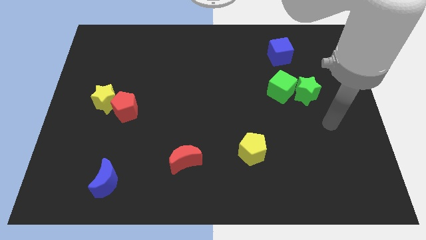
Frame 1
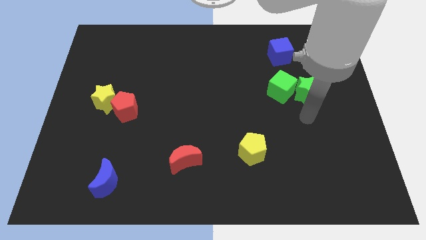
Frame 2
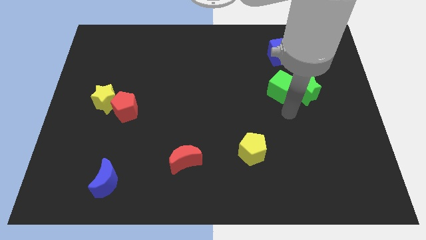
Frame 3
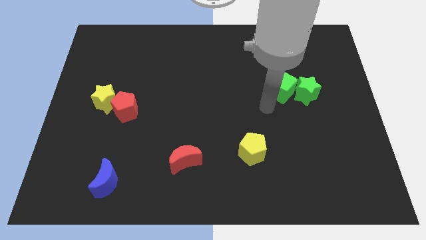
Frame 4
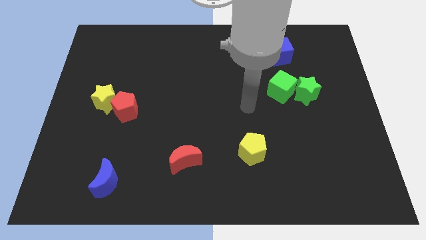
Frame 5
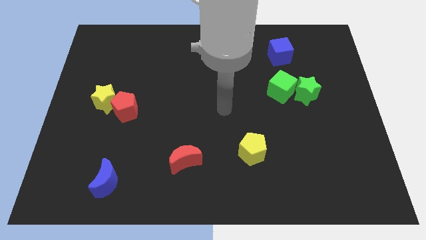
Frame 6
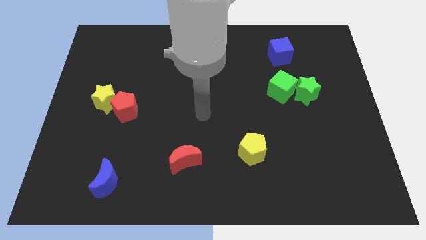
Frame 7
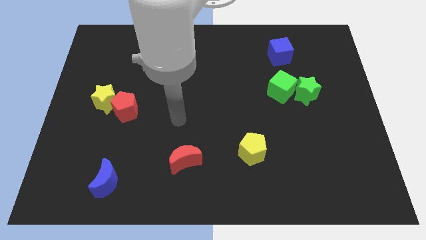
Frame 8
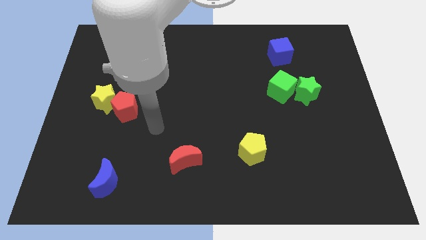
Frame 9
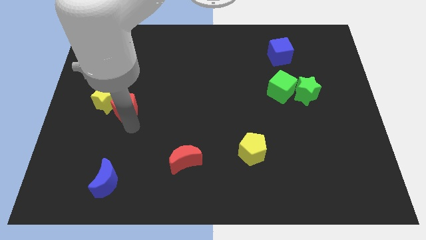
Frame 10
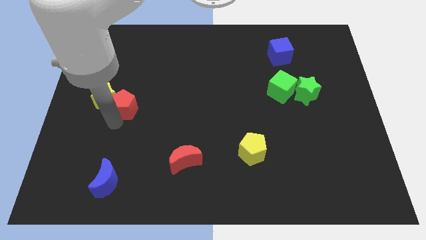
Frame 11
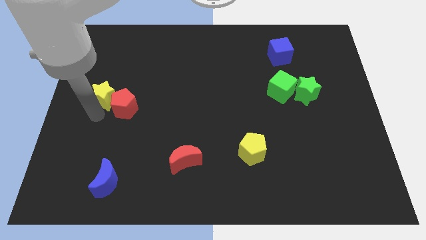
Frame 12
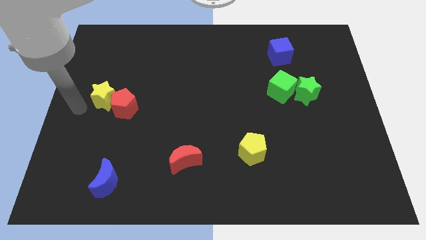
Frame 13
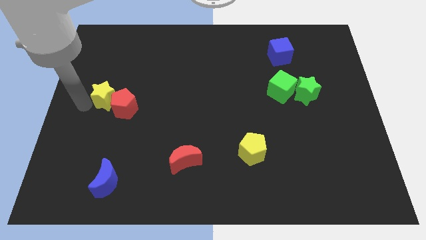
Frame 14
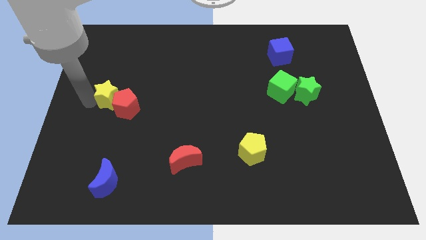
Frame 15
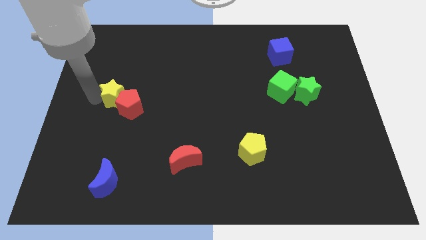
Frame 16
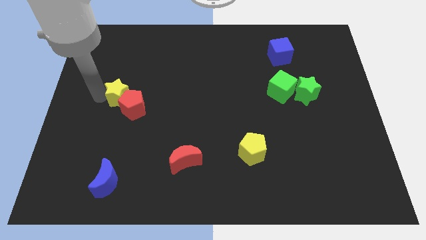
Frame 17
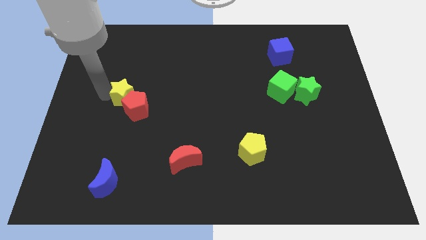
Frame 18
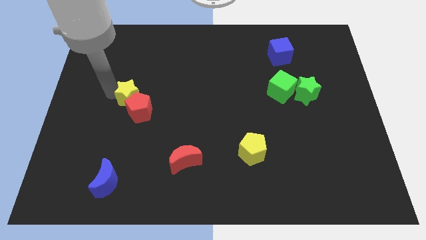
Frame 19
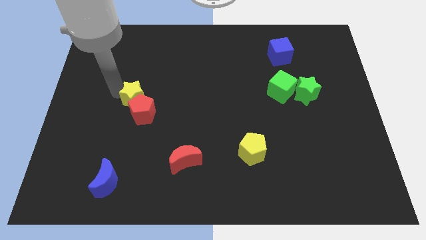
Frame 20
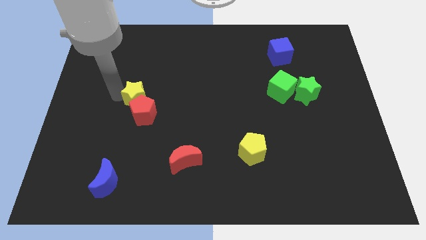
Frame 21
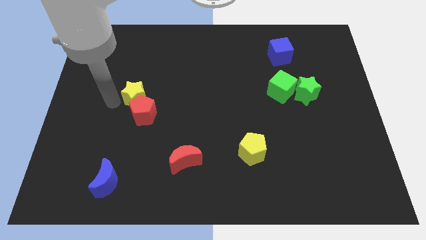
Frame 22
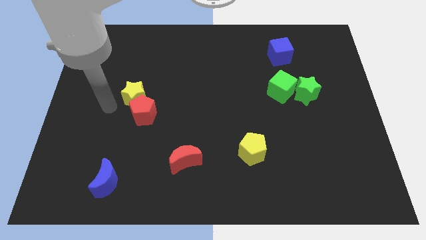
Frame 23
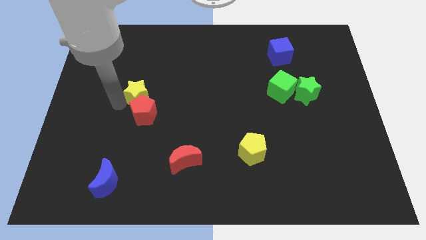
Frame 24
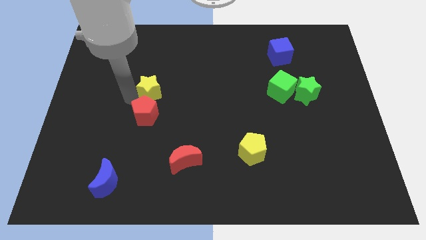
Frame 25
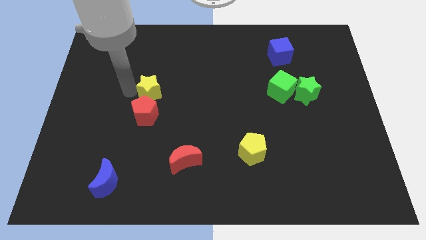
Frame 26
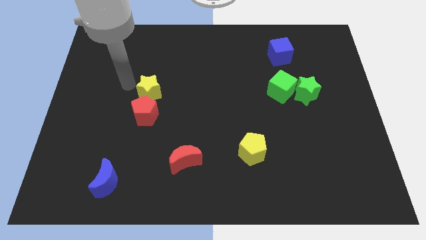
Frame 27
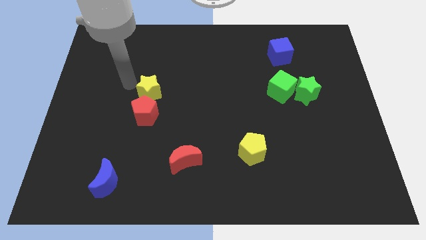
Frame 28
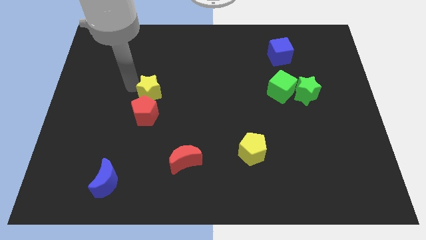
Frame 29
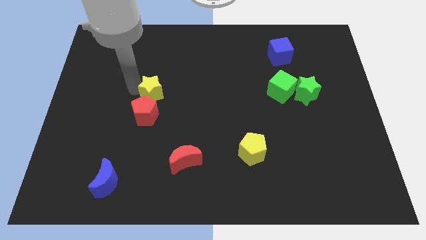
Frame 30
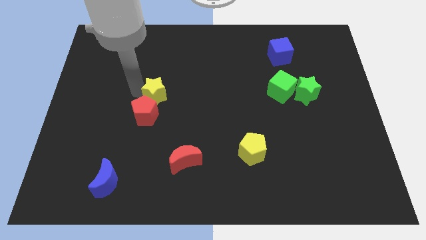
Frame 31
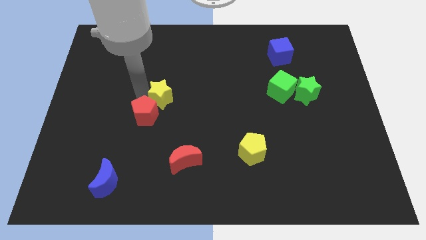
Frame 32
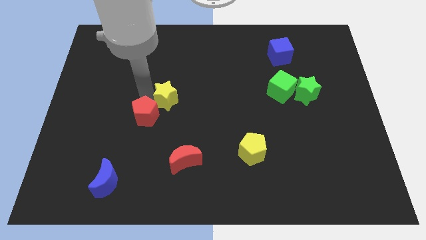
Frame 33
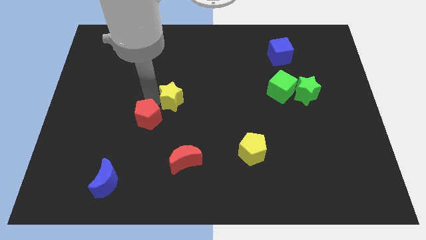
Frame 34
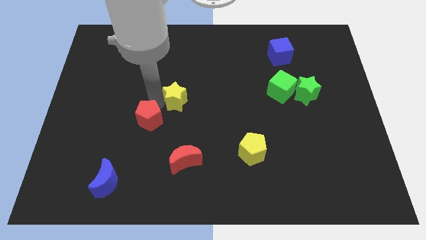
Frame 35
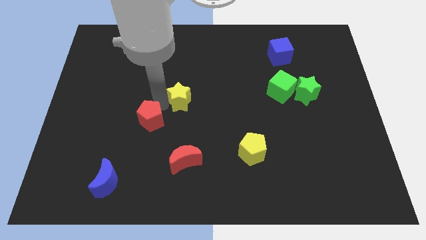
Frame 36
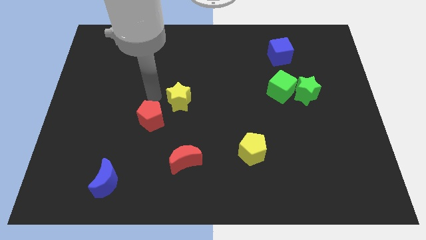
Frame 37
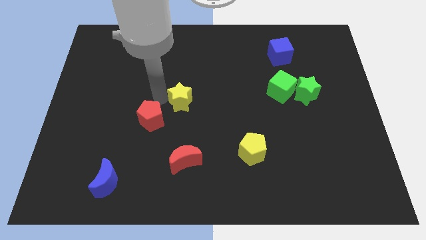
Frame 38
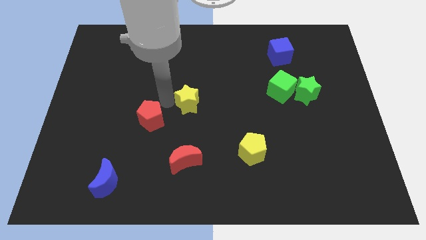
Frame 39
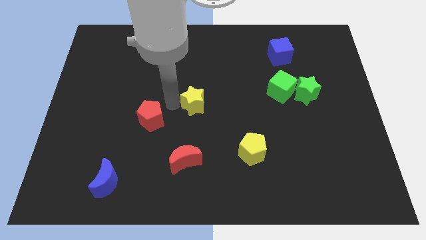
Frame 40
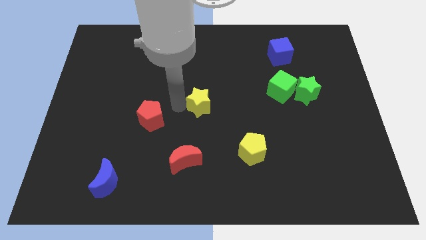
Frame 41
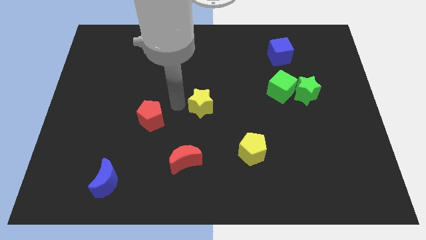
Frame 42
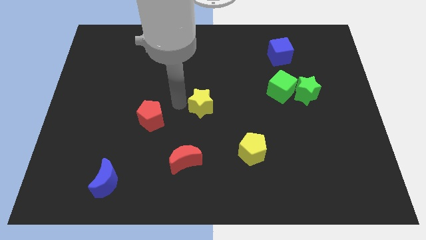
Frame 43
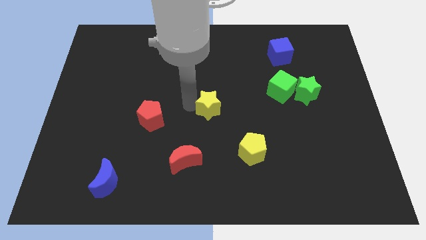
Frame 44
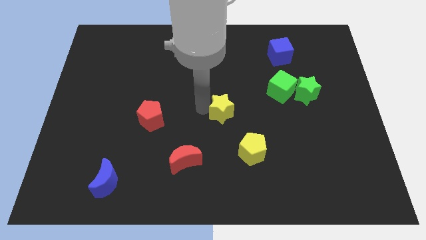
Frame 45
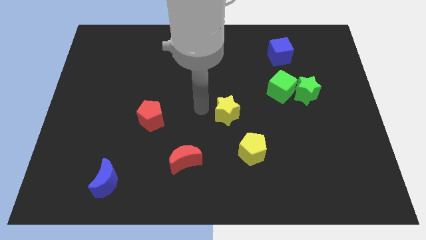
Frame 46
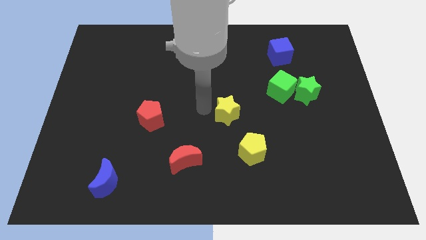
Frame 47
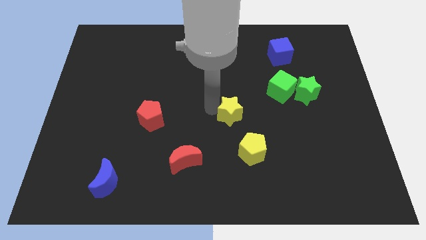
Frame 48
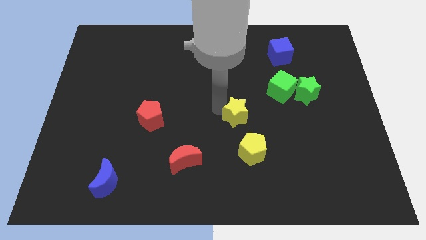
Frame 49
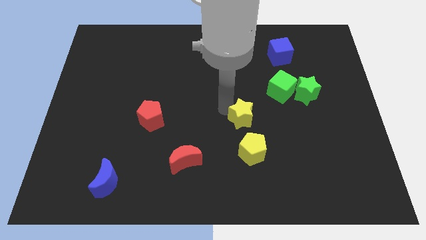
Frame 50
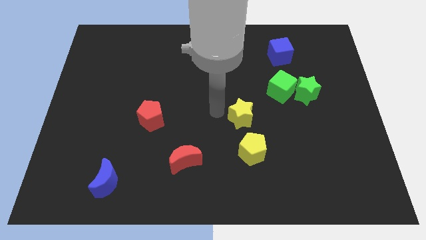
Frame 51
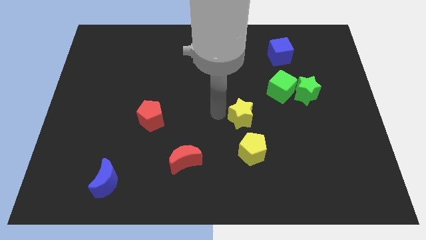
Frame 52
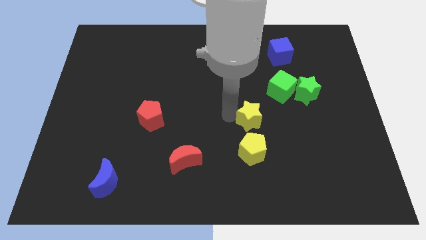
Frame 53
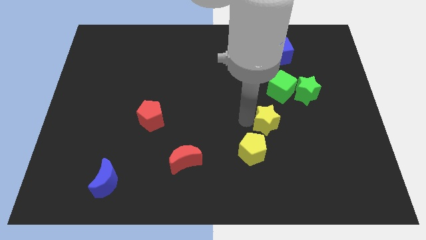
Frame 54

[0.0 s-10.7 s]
push the yellow star to the bottom of the green cube

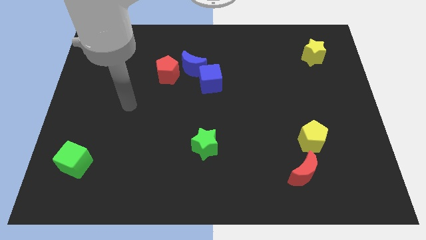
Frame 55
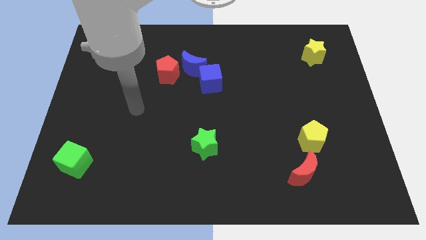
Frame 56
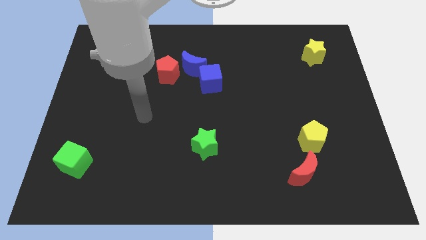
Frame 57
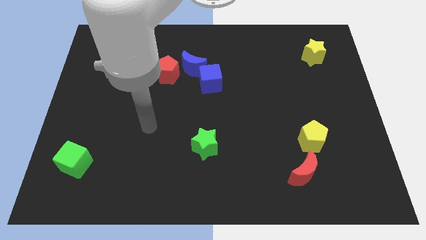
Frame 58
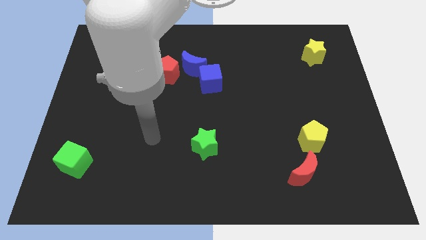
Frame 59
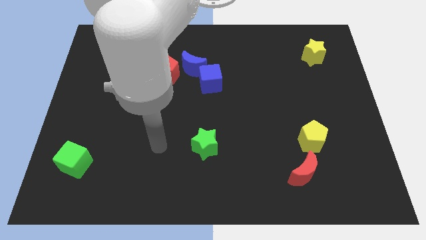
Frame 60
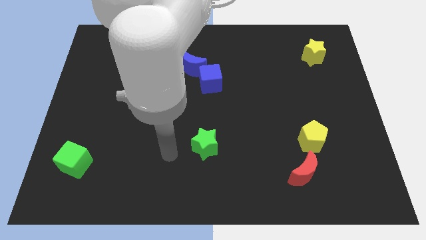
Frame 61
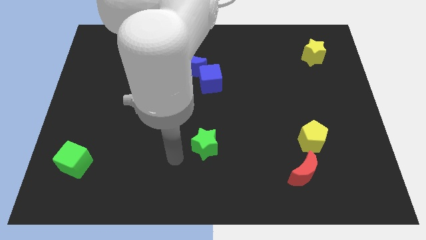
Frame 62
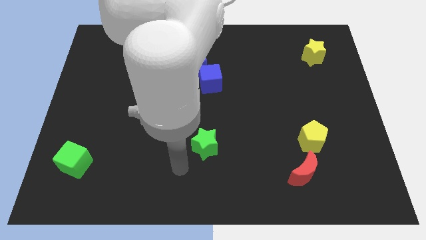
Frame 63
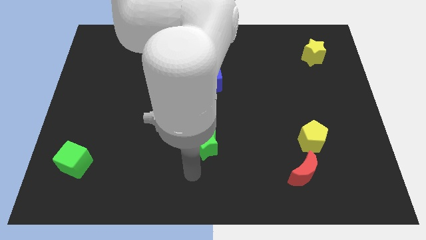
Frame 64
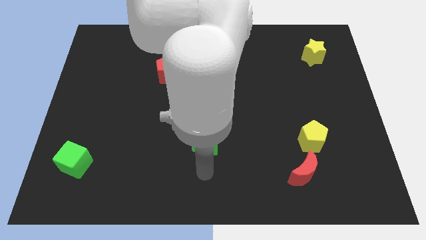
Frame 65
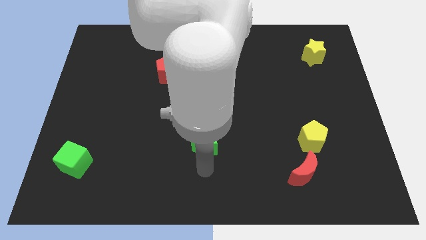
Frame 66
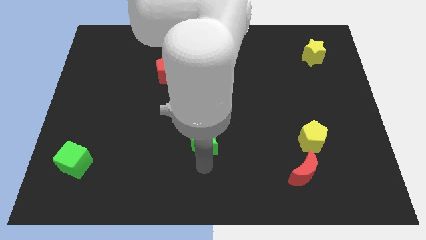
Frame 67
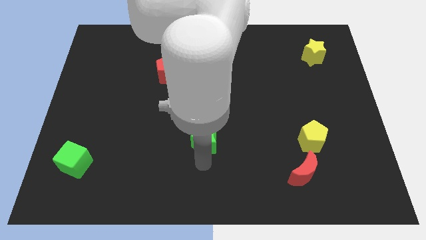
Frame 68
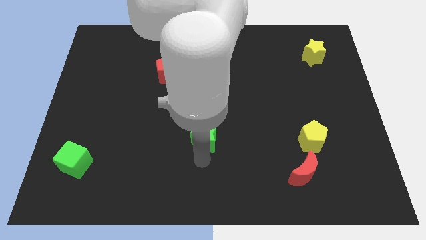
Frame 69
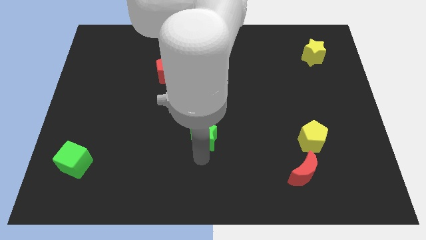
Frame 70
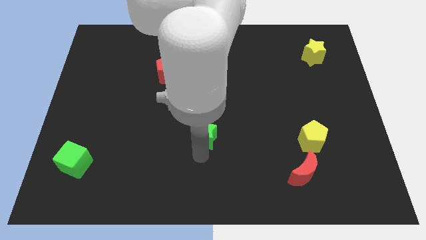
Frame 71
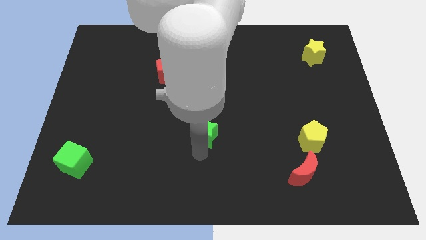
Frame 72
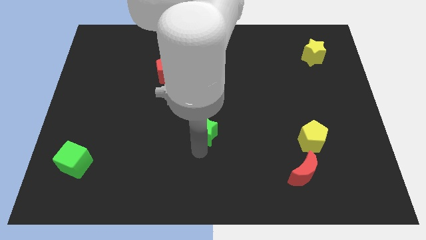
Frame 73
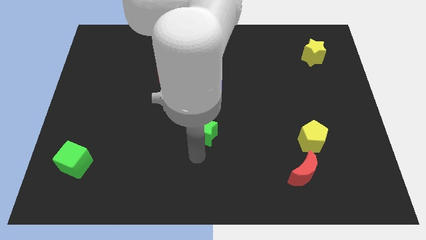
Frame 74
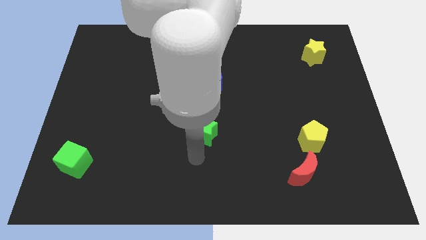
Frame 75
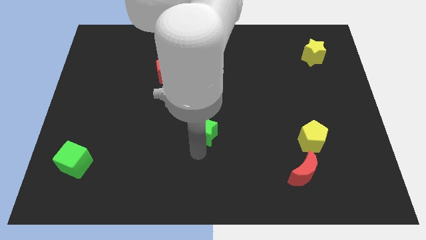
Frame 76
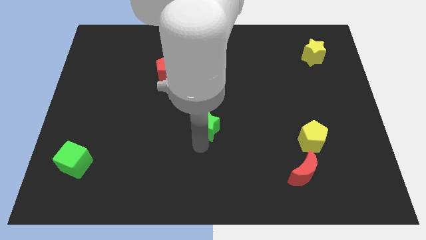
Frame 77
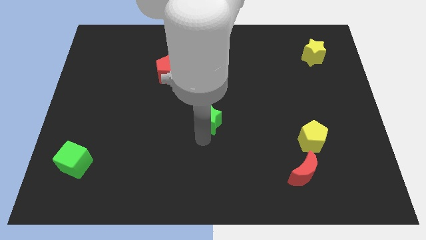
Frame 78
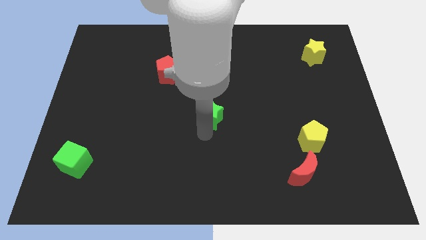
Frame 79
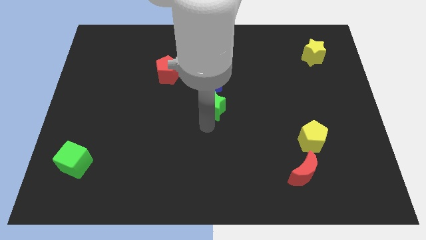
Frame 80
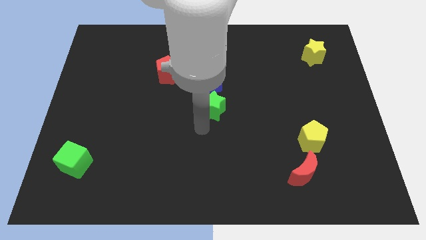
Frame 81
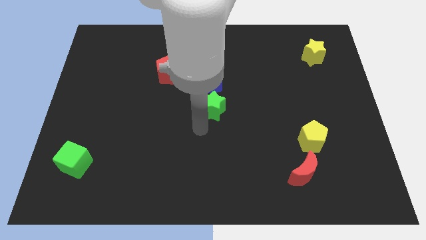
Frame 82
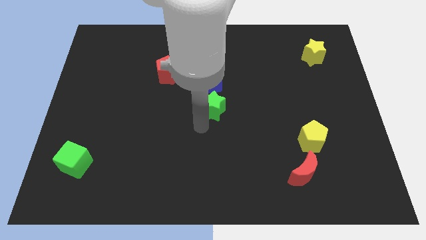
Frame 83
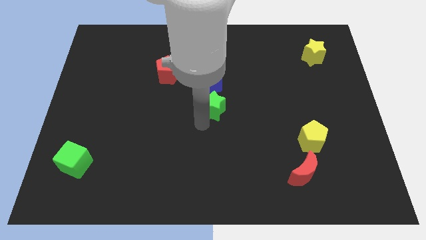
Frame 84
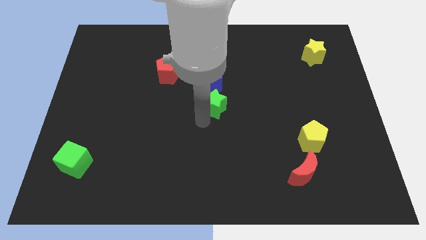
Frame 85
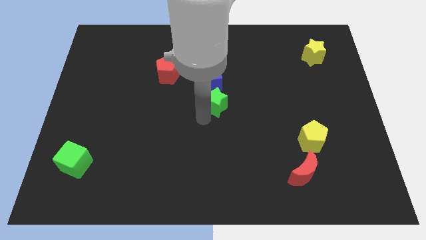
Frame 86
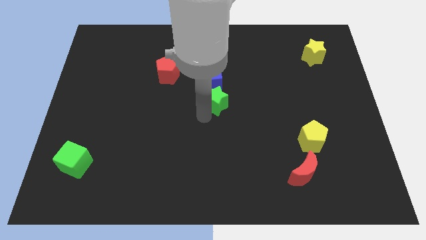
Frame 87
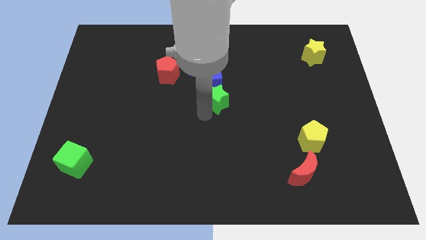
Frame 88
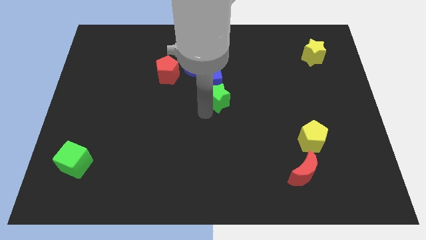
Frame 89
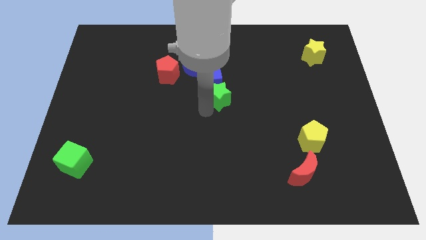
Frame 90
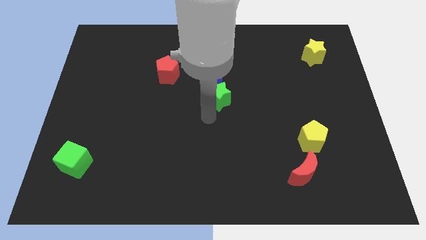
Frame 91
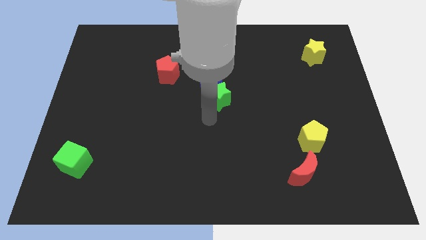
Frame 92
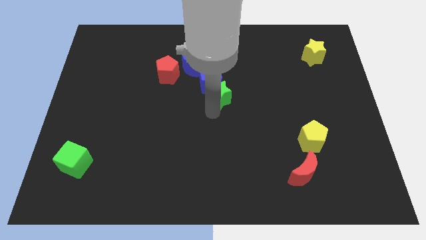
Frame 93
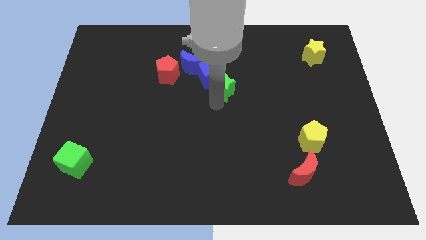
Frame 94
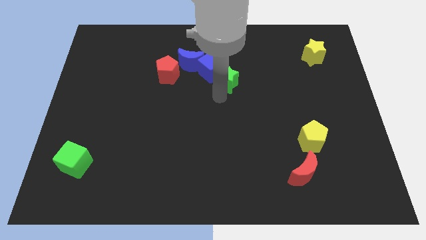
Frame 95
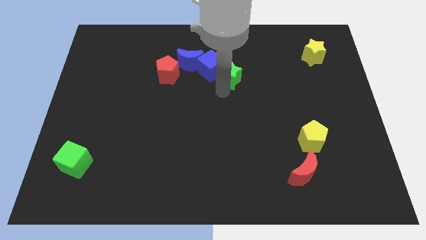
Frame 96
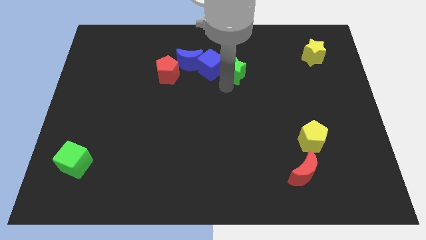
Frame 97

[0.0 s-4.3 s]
move the green star just right of the blue moon
